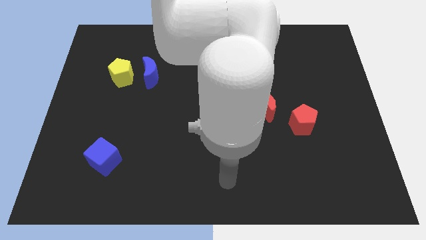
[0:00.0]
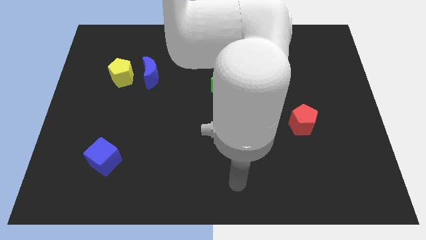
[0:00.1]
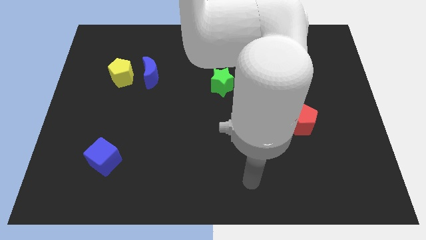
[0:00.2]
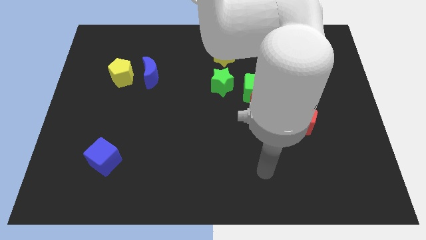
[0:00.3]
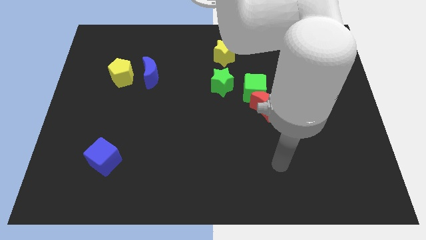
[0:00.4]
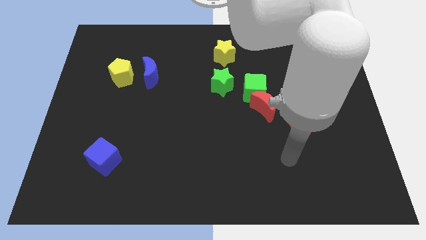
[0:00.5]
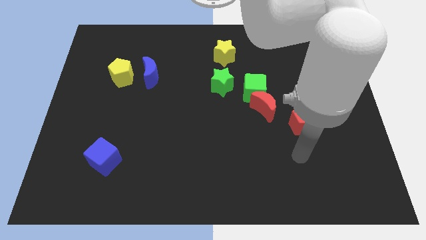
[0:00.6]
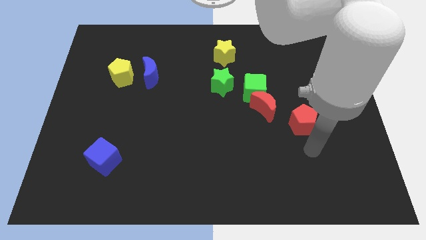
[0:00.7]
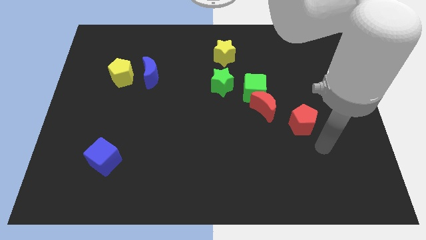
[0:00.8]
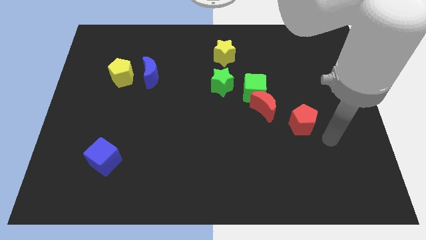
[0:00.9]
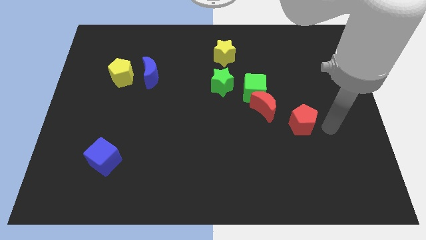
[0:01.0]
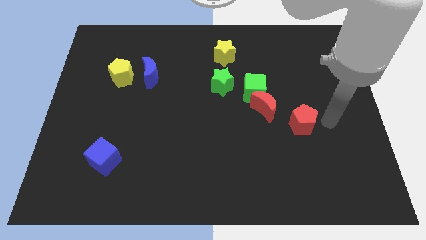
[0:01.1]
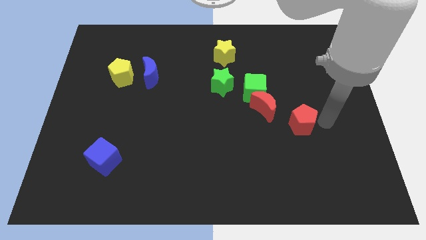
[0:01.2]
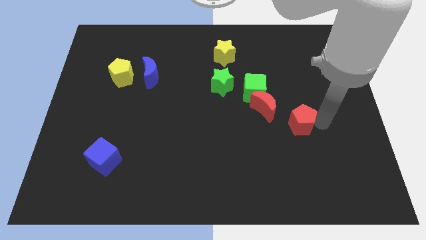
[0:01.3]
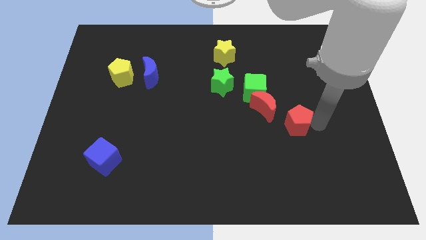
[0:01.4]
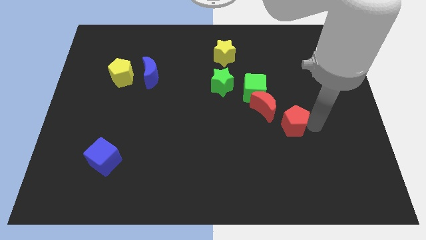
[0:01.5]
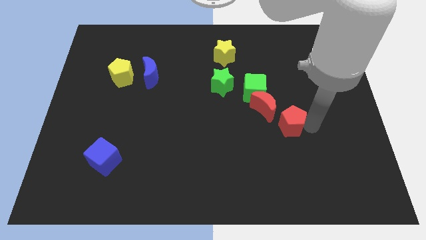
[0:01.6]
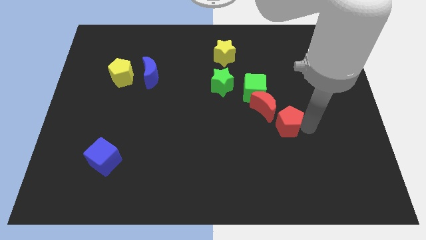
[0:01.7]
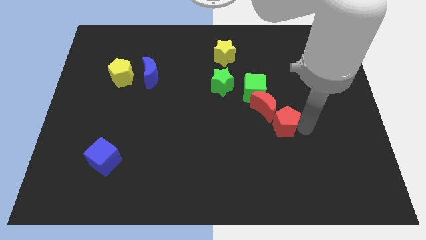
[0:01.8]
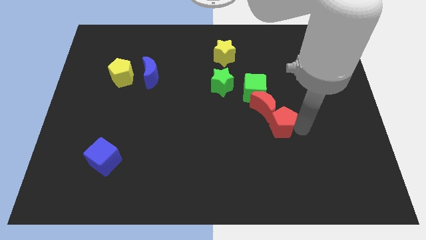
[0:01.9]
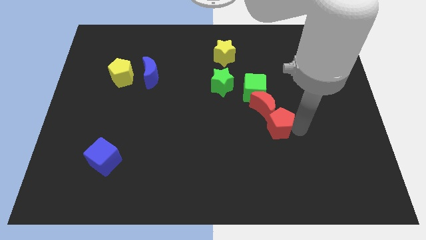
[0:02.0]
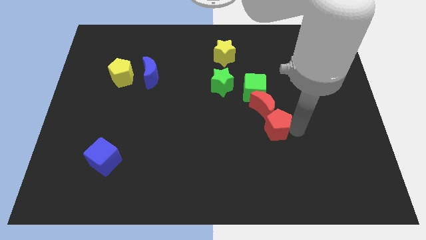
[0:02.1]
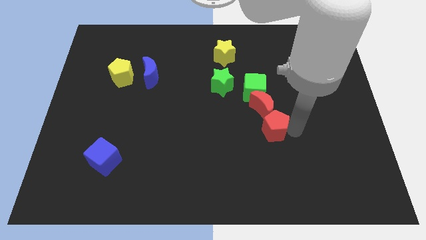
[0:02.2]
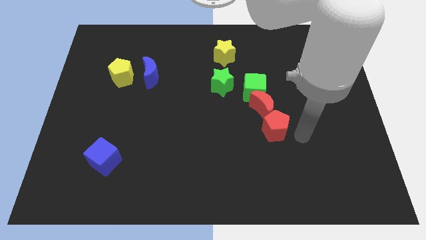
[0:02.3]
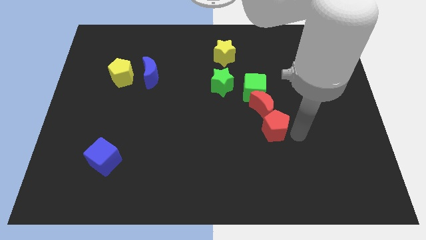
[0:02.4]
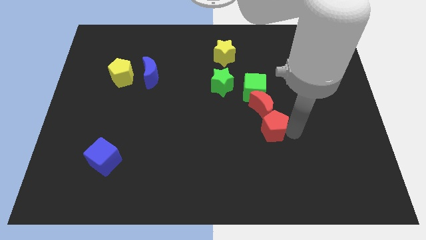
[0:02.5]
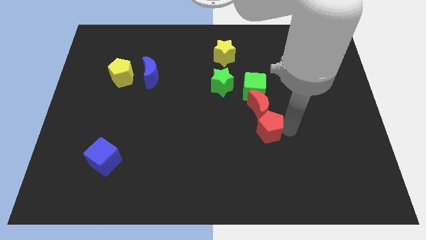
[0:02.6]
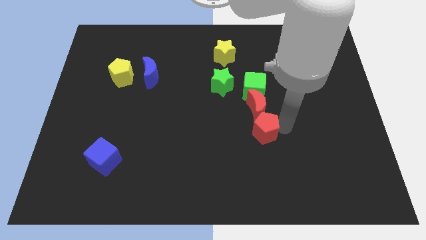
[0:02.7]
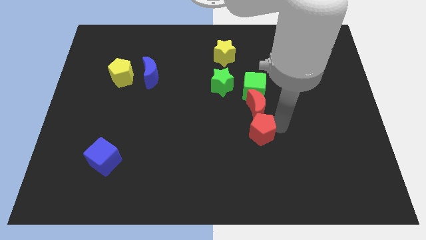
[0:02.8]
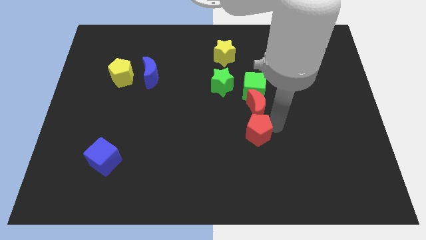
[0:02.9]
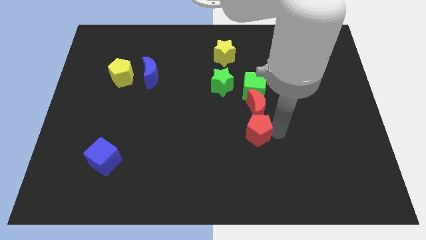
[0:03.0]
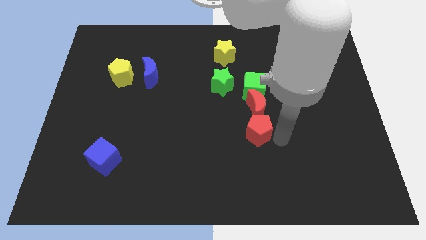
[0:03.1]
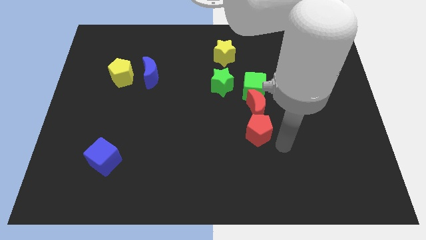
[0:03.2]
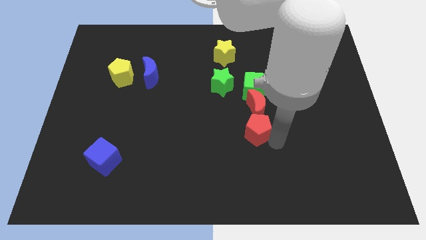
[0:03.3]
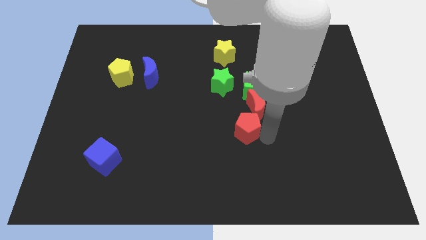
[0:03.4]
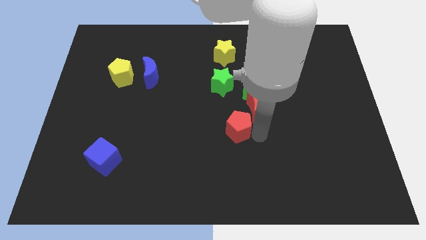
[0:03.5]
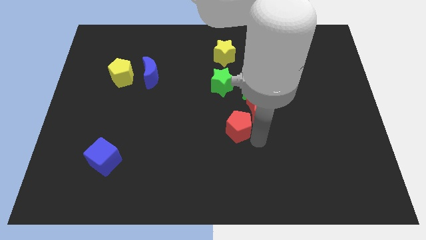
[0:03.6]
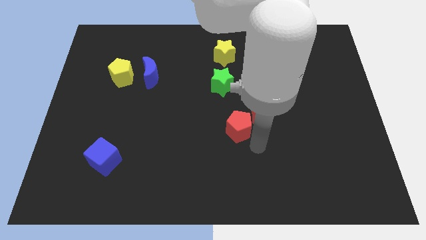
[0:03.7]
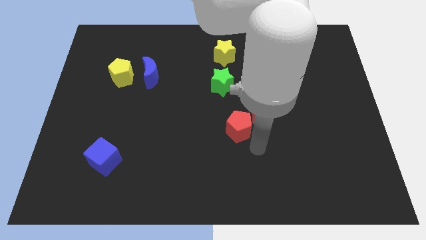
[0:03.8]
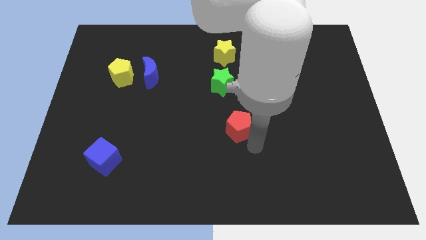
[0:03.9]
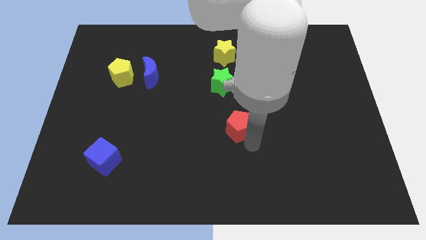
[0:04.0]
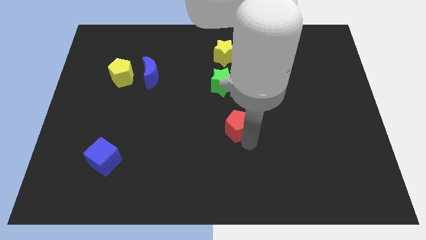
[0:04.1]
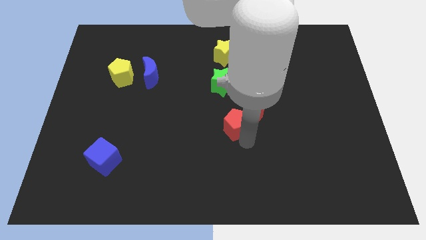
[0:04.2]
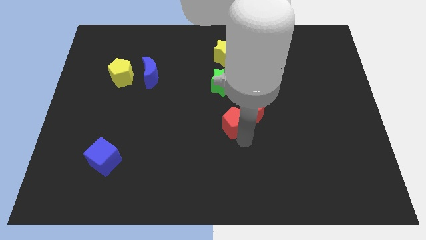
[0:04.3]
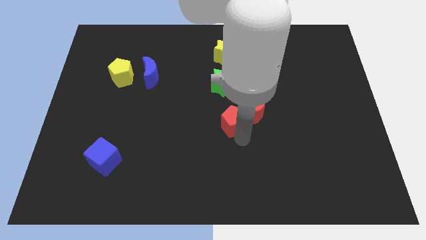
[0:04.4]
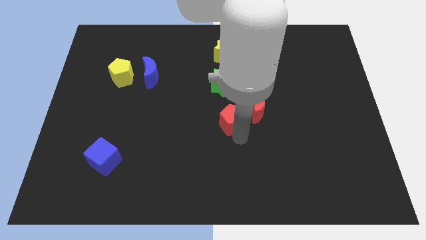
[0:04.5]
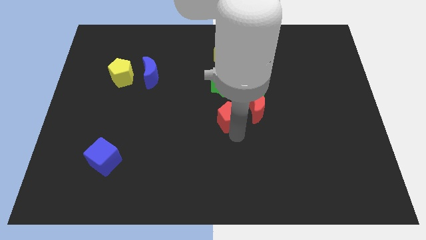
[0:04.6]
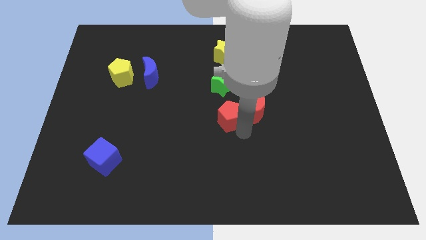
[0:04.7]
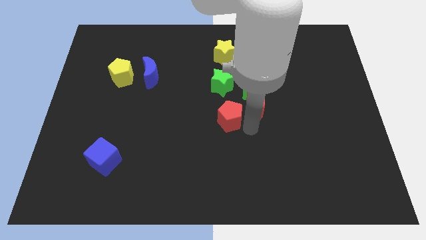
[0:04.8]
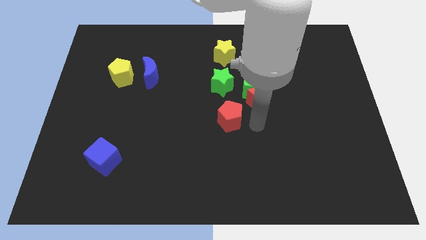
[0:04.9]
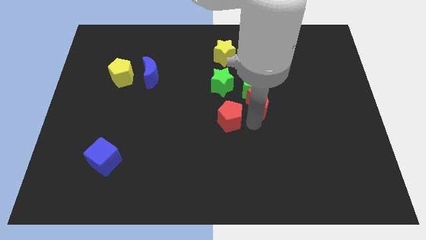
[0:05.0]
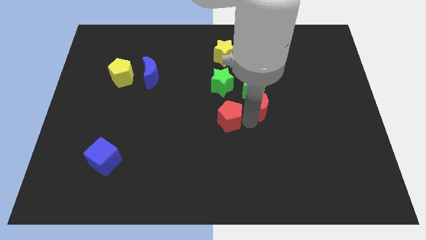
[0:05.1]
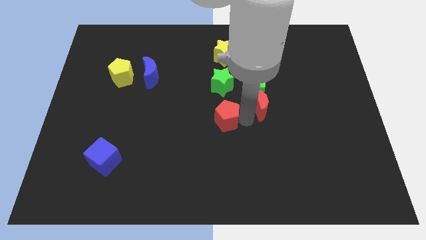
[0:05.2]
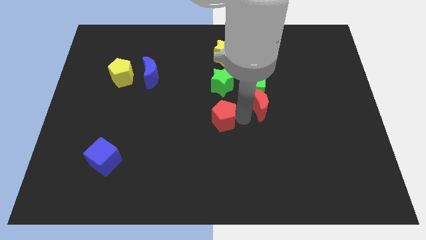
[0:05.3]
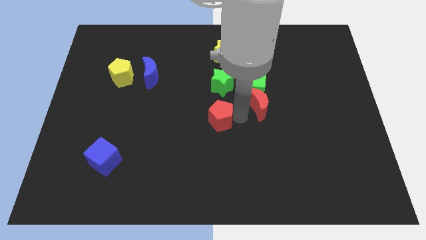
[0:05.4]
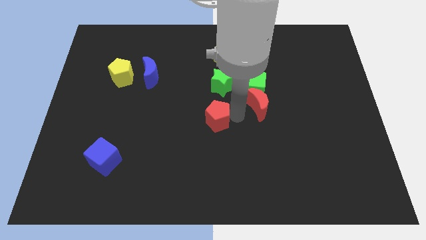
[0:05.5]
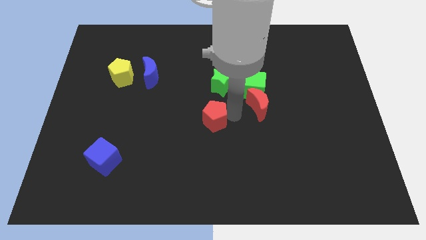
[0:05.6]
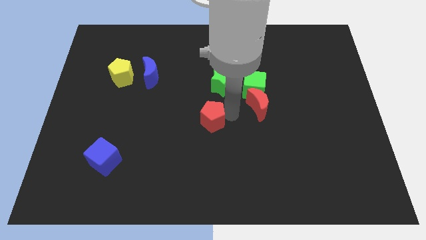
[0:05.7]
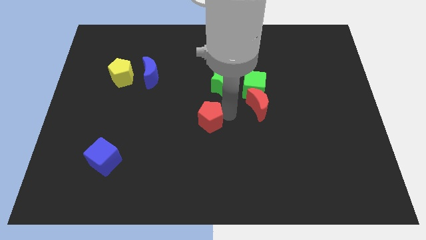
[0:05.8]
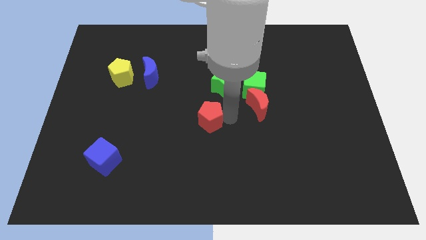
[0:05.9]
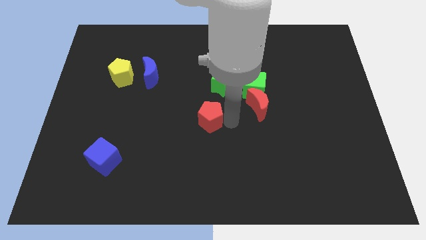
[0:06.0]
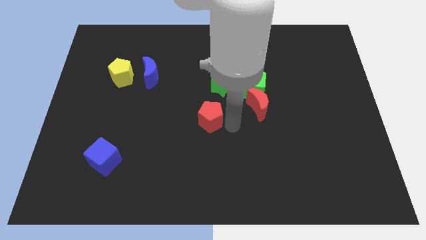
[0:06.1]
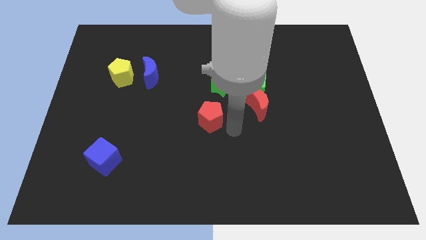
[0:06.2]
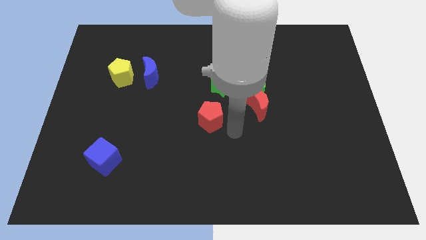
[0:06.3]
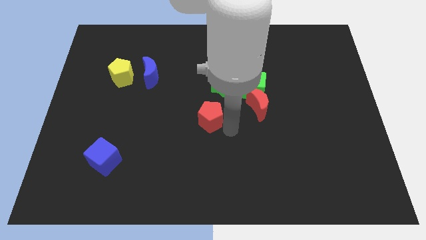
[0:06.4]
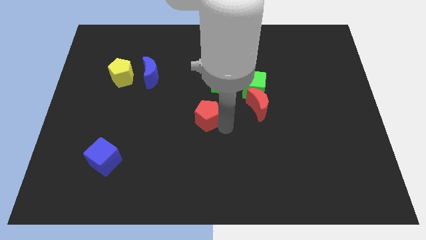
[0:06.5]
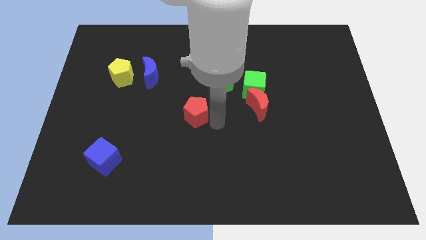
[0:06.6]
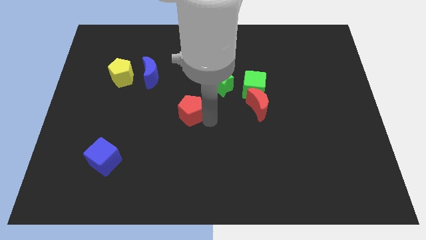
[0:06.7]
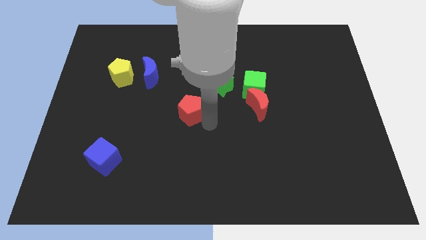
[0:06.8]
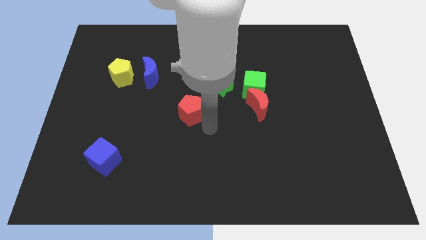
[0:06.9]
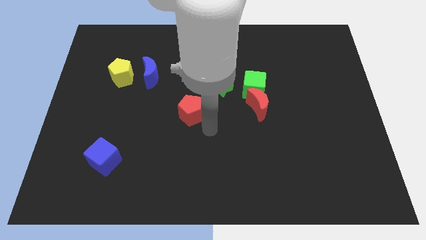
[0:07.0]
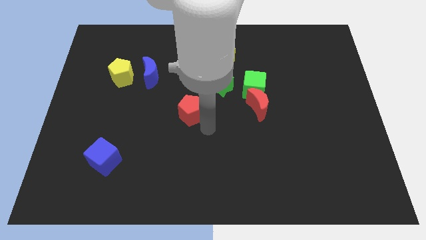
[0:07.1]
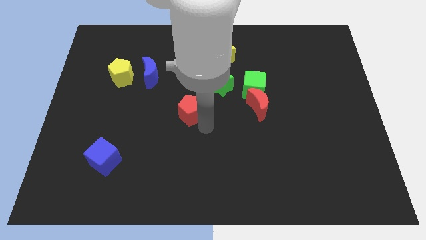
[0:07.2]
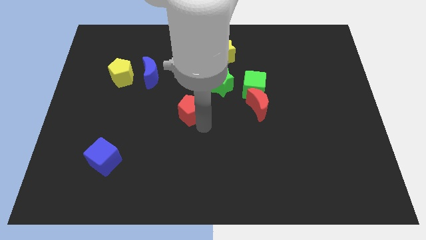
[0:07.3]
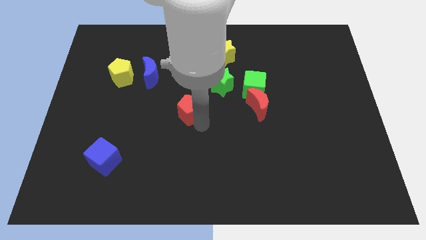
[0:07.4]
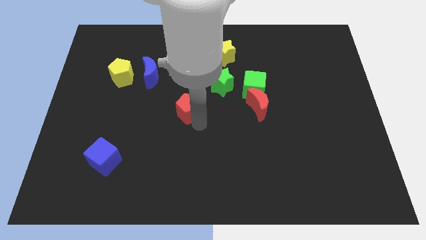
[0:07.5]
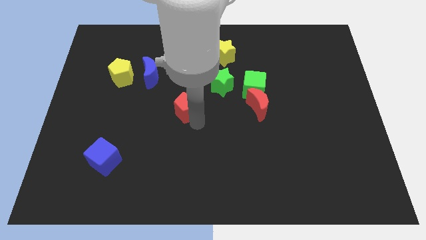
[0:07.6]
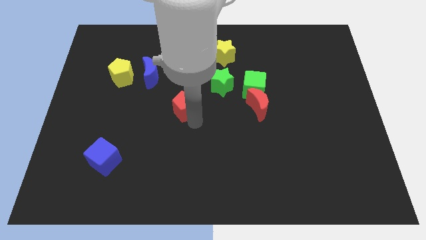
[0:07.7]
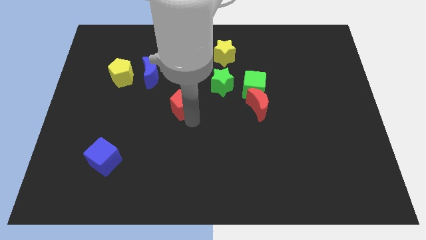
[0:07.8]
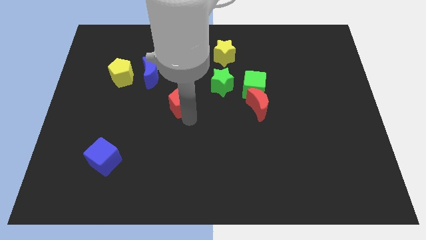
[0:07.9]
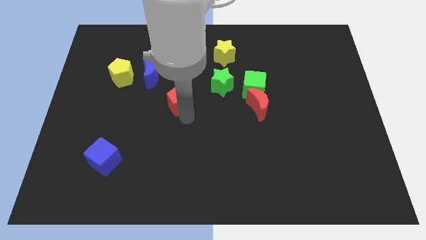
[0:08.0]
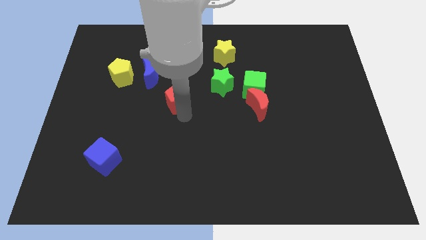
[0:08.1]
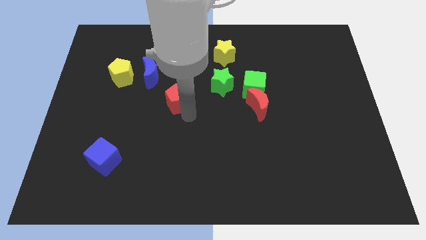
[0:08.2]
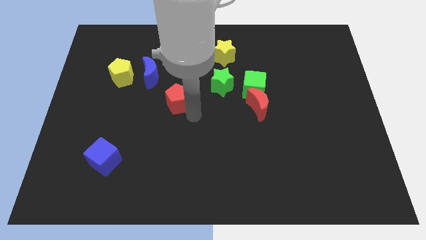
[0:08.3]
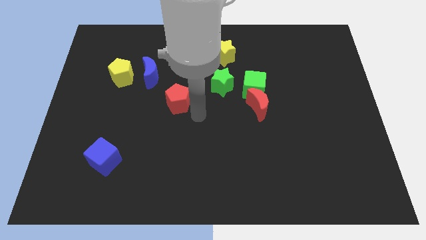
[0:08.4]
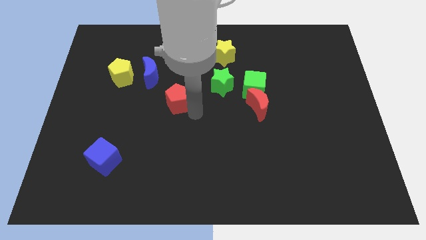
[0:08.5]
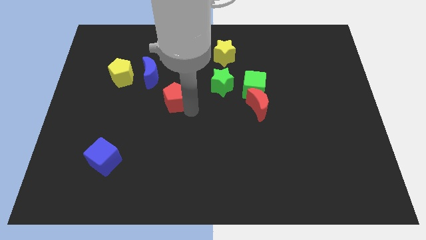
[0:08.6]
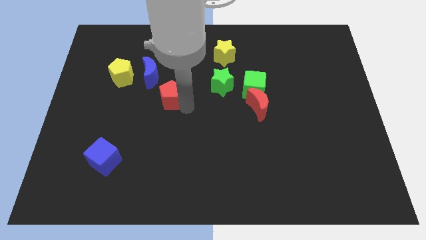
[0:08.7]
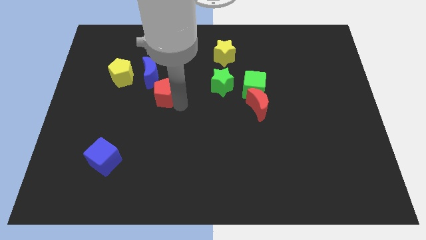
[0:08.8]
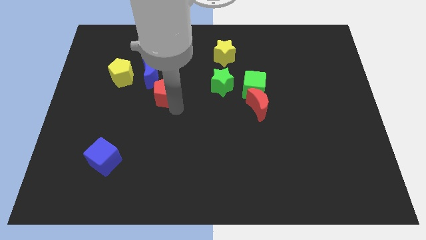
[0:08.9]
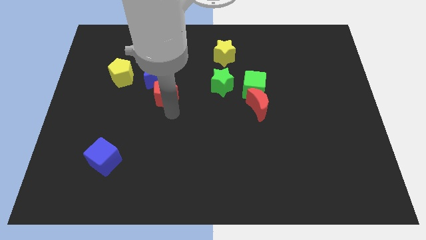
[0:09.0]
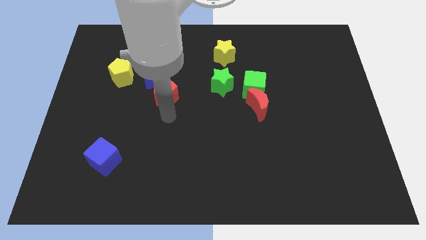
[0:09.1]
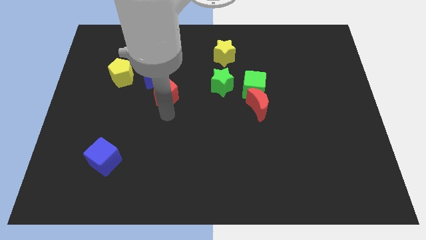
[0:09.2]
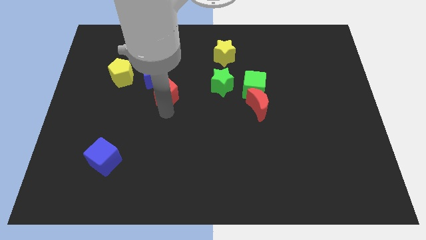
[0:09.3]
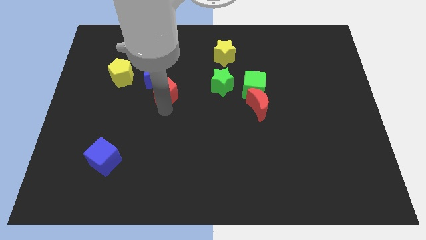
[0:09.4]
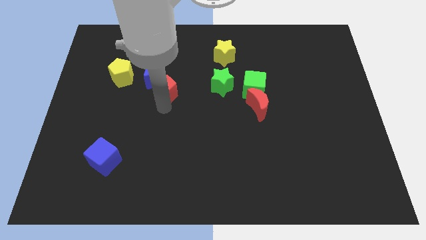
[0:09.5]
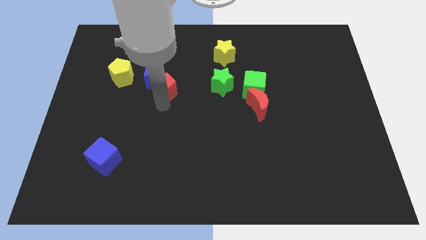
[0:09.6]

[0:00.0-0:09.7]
put the red pentagon to the right side of the yellow pentagon
